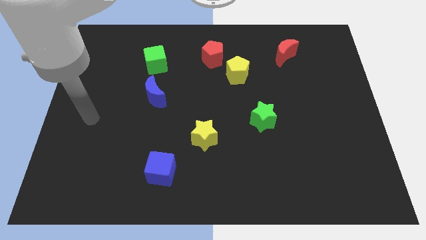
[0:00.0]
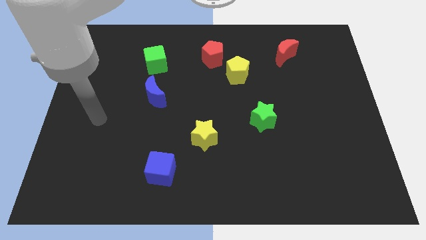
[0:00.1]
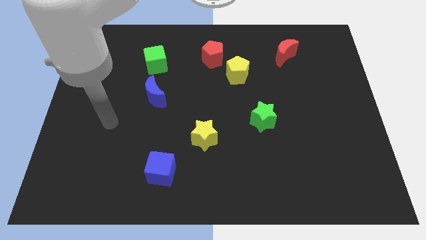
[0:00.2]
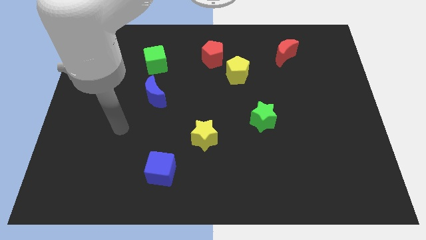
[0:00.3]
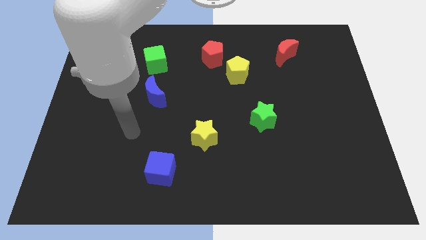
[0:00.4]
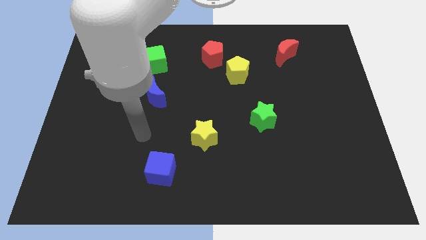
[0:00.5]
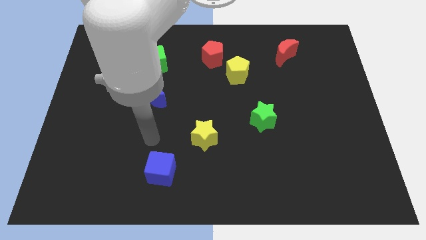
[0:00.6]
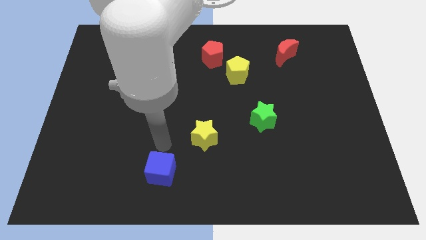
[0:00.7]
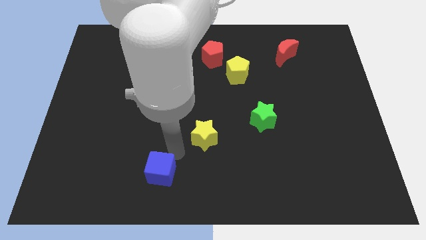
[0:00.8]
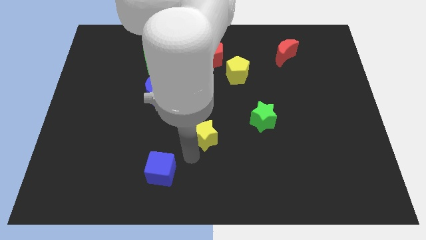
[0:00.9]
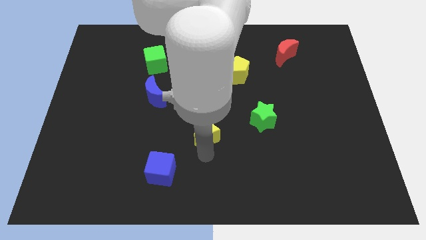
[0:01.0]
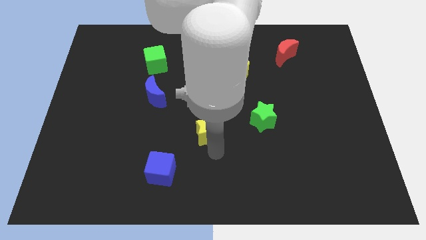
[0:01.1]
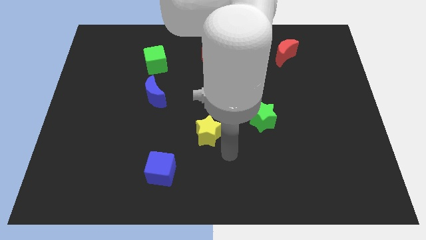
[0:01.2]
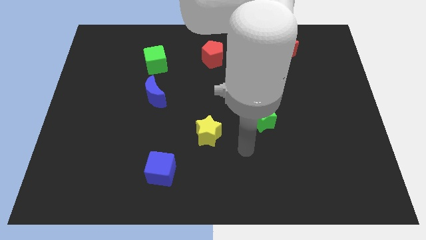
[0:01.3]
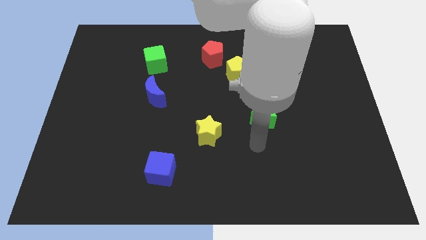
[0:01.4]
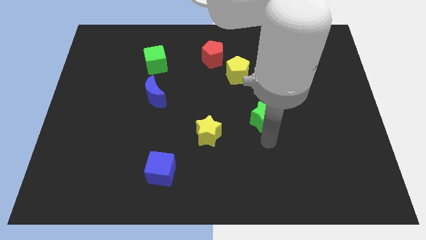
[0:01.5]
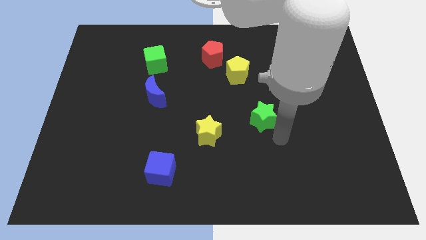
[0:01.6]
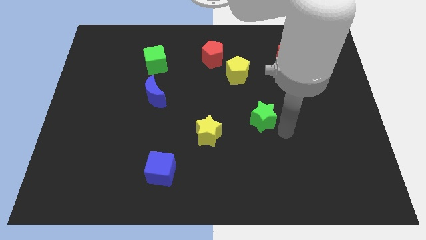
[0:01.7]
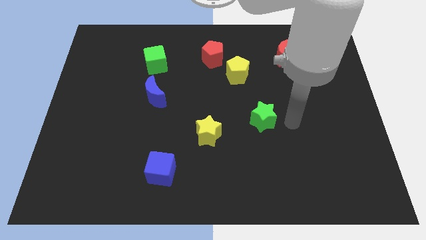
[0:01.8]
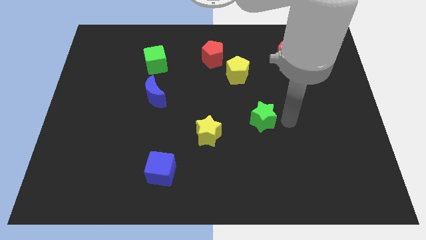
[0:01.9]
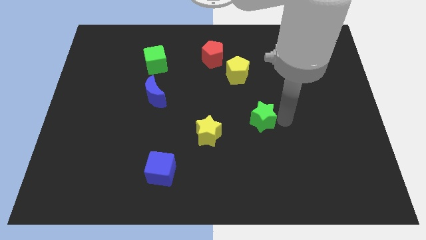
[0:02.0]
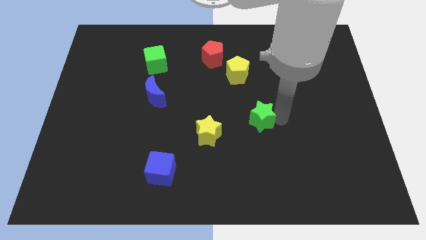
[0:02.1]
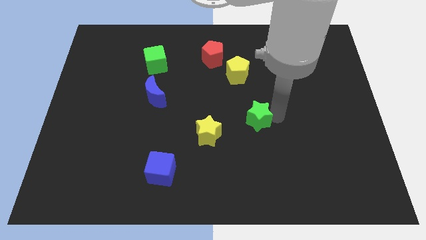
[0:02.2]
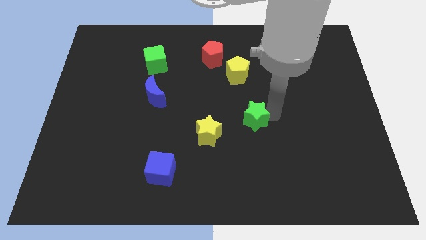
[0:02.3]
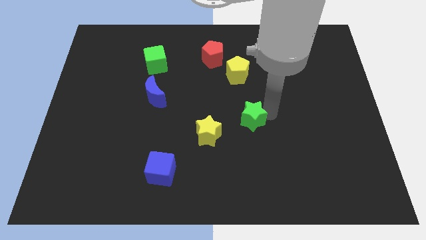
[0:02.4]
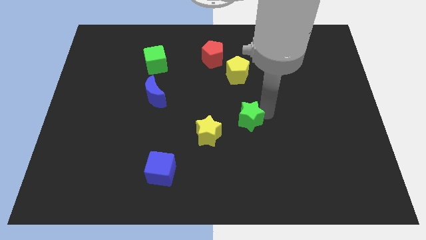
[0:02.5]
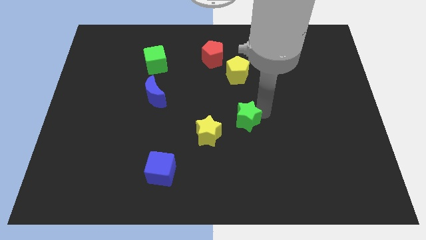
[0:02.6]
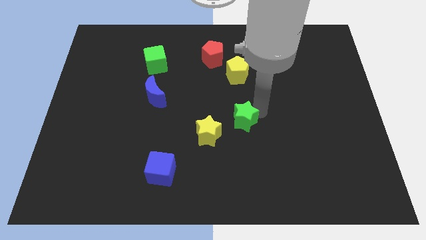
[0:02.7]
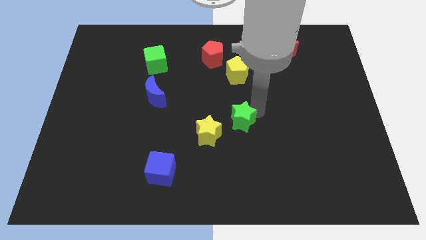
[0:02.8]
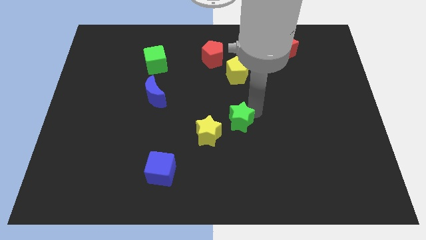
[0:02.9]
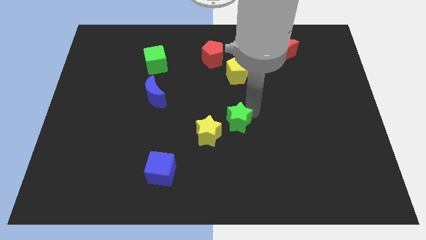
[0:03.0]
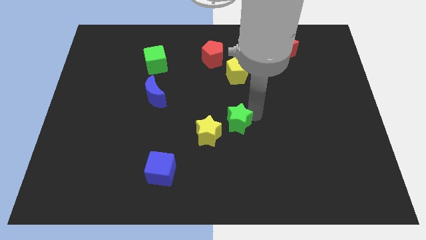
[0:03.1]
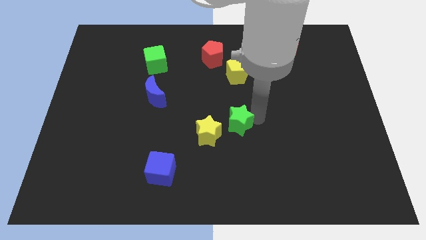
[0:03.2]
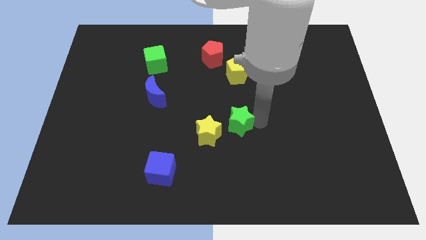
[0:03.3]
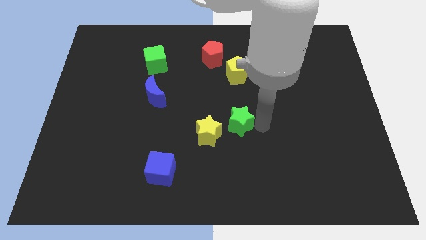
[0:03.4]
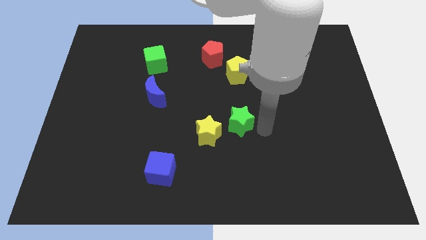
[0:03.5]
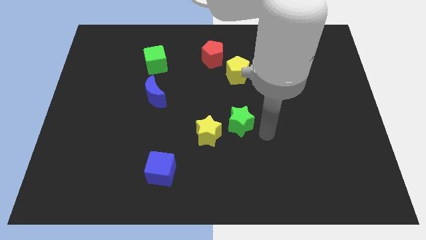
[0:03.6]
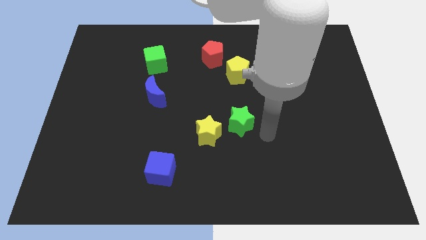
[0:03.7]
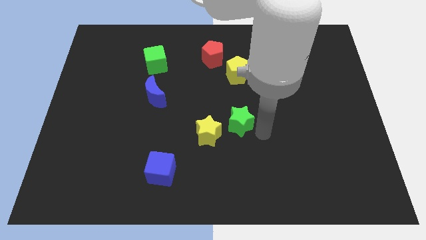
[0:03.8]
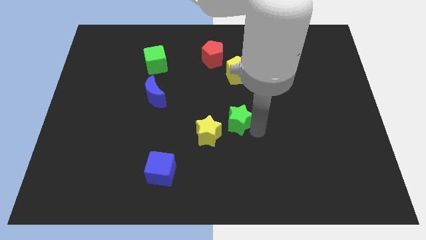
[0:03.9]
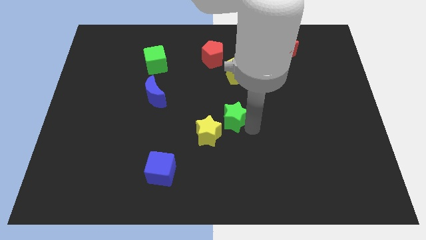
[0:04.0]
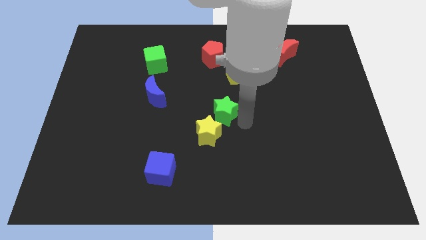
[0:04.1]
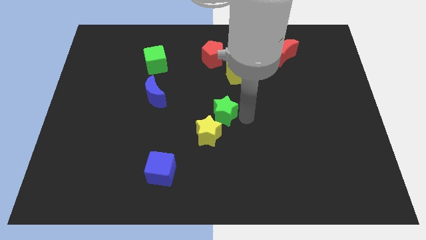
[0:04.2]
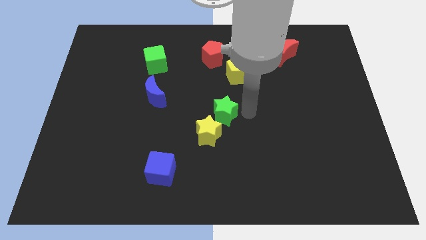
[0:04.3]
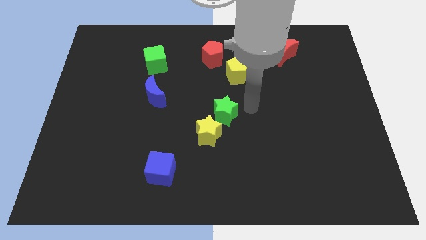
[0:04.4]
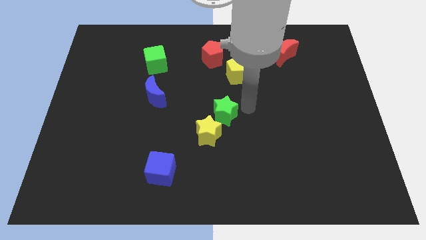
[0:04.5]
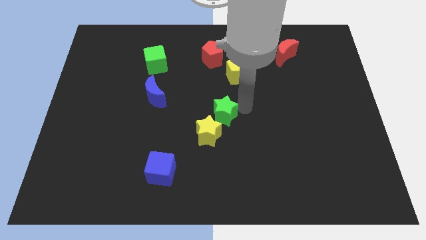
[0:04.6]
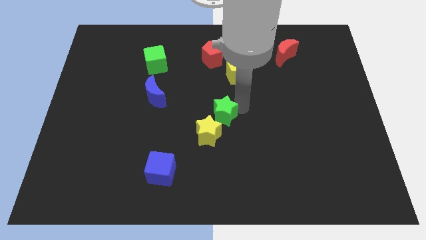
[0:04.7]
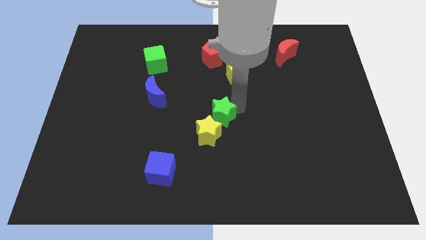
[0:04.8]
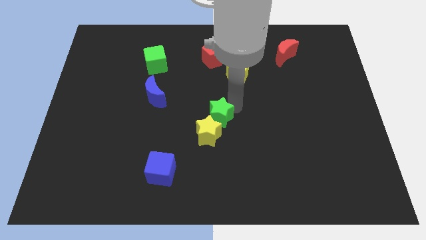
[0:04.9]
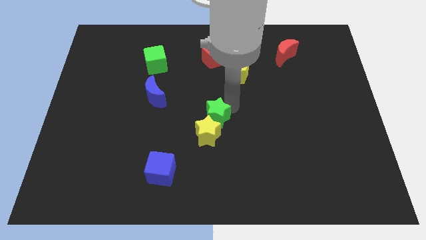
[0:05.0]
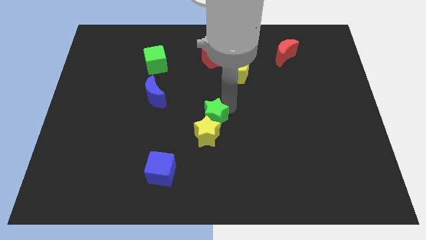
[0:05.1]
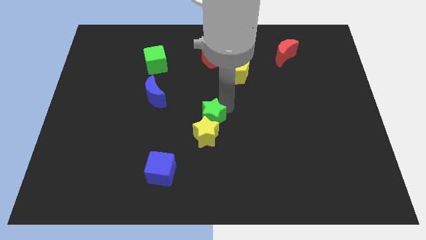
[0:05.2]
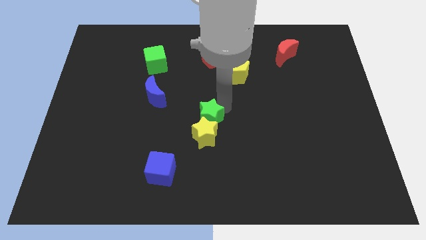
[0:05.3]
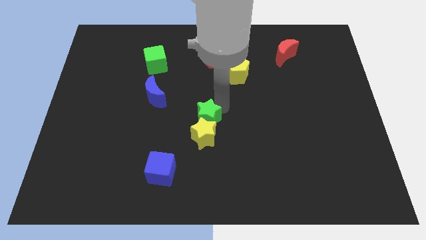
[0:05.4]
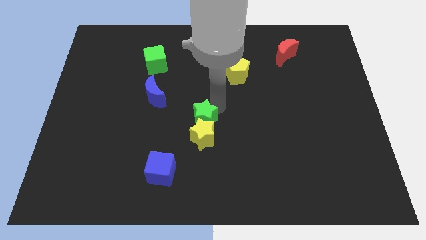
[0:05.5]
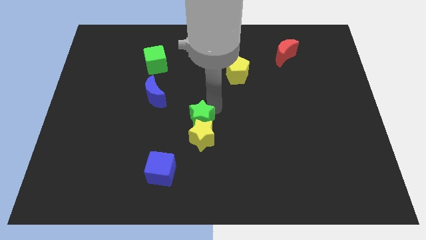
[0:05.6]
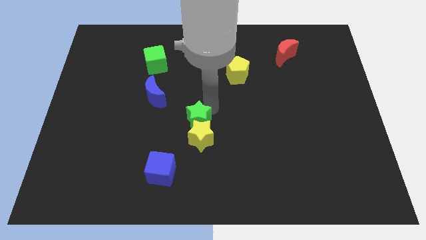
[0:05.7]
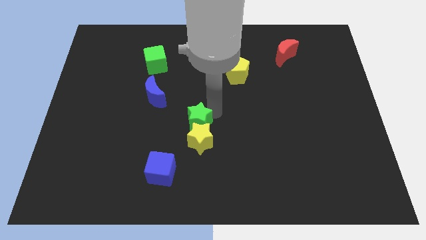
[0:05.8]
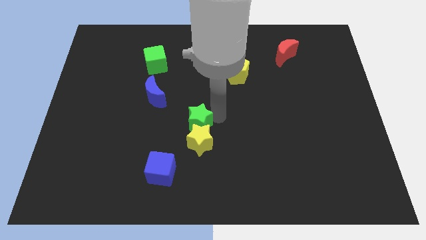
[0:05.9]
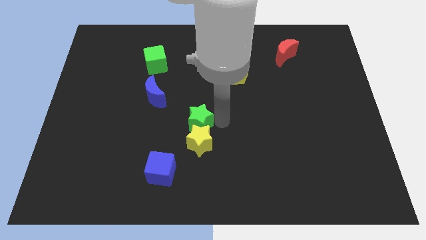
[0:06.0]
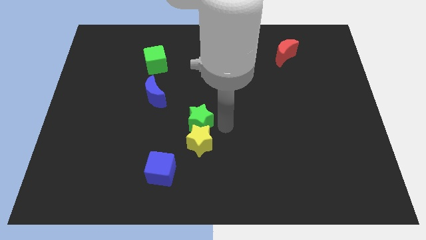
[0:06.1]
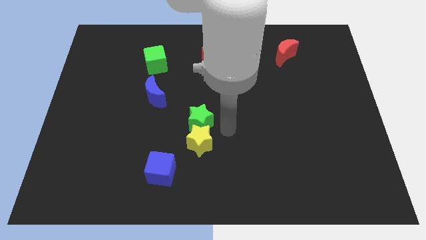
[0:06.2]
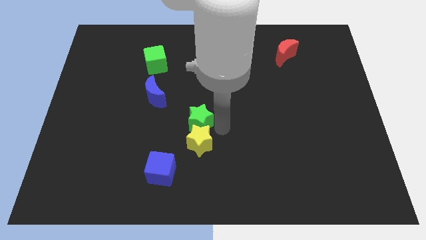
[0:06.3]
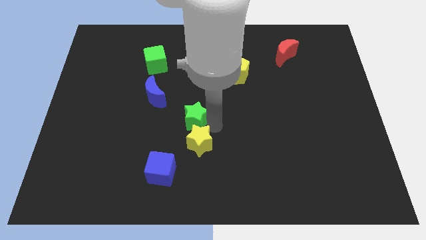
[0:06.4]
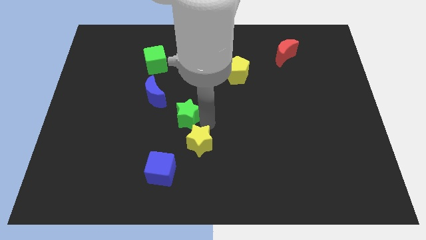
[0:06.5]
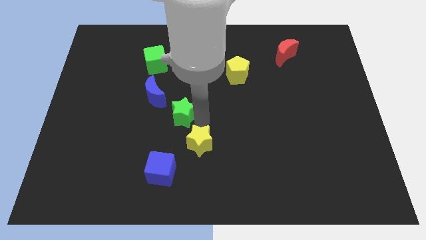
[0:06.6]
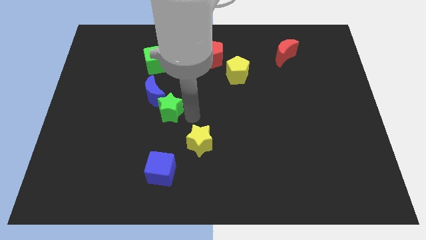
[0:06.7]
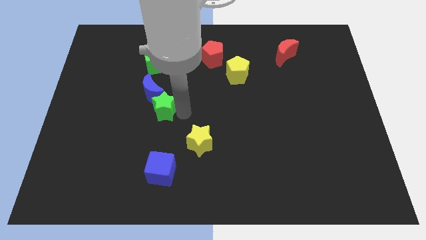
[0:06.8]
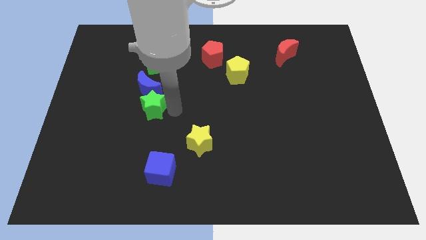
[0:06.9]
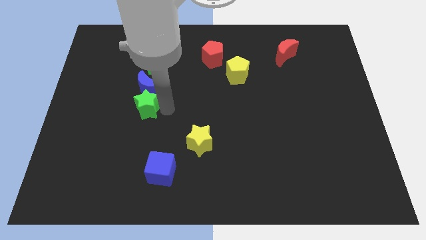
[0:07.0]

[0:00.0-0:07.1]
slide the green star to the bottom left of the blue moon

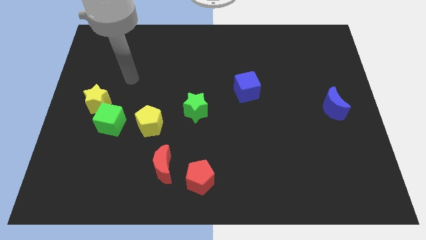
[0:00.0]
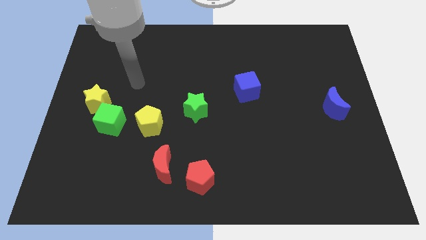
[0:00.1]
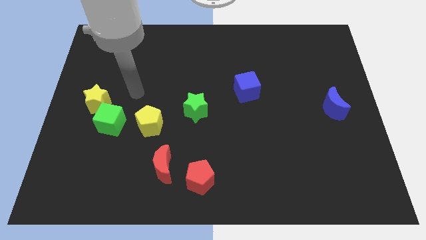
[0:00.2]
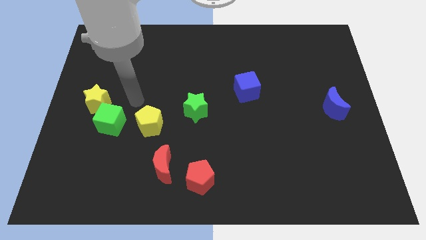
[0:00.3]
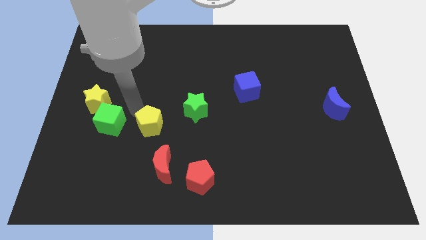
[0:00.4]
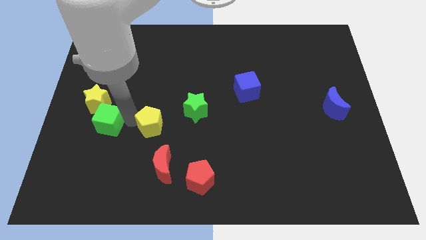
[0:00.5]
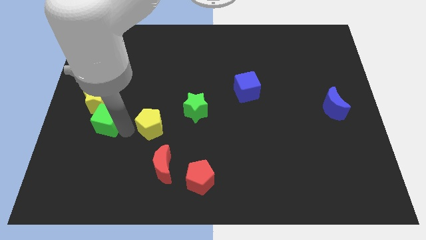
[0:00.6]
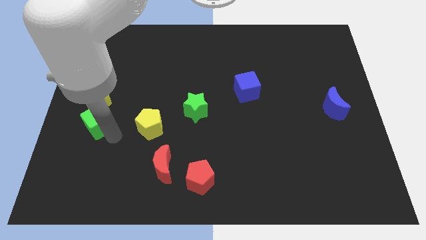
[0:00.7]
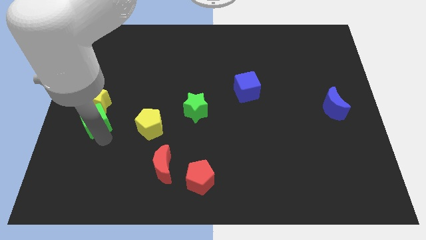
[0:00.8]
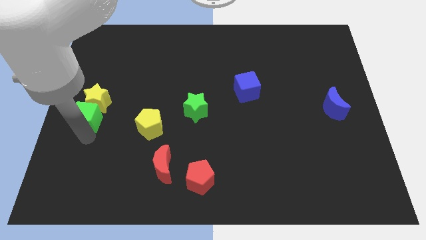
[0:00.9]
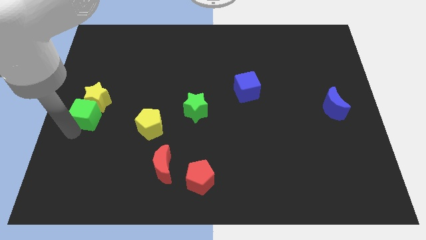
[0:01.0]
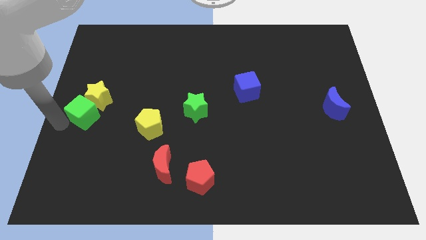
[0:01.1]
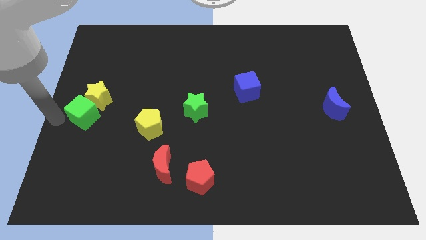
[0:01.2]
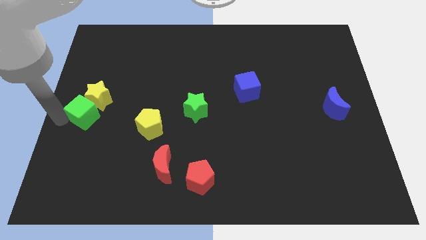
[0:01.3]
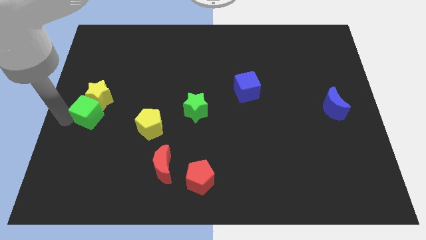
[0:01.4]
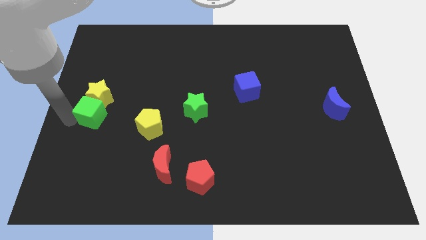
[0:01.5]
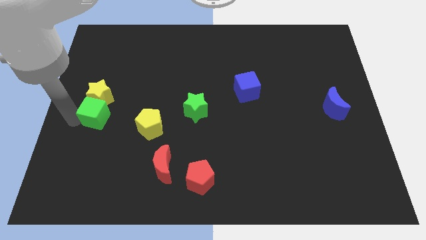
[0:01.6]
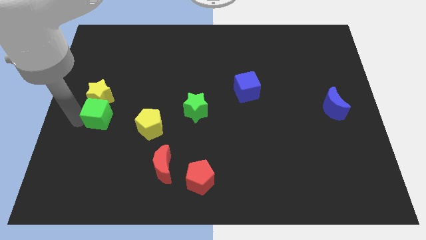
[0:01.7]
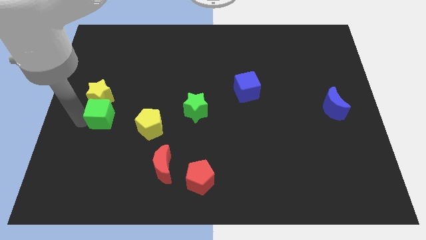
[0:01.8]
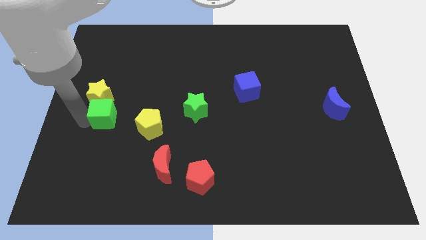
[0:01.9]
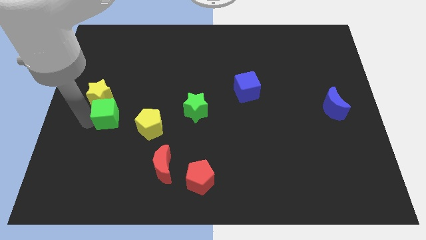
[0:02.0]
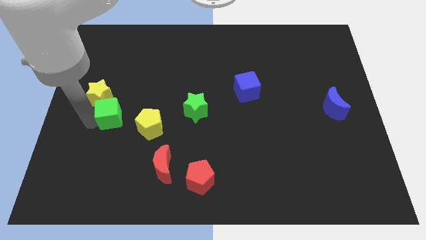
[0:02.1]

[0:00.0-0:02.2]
put the green cube diagonally up and to the left of the yellow pentagon
